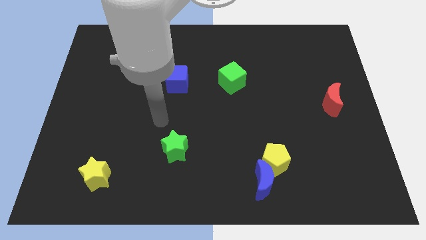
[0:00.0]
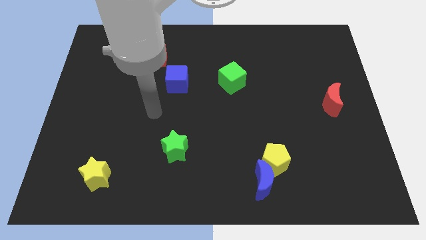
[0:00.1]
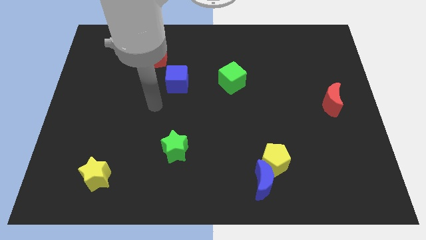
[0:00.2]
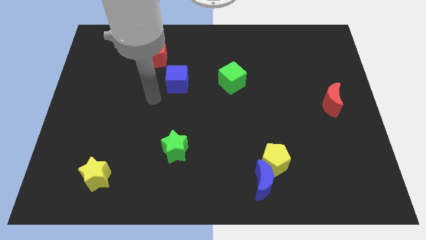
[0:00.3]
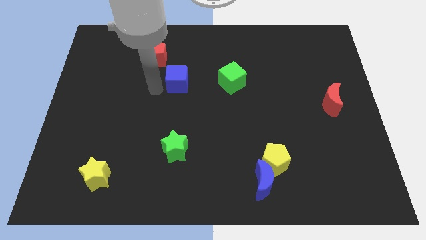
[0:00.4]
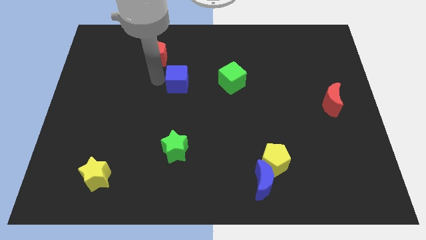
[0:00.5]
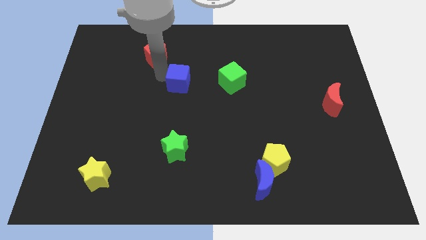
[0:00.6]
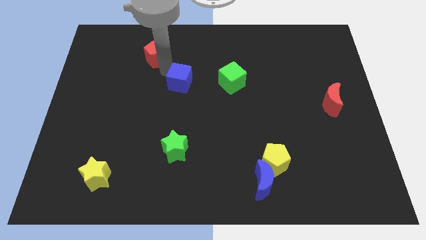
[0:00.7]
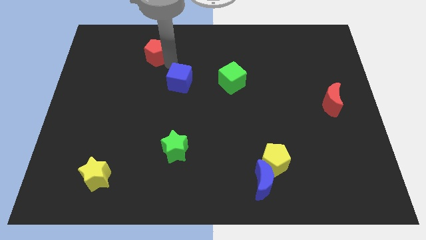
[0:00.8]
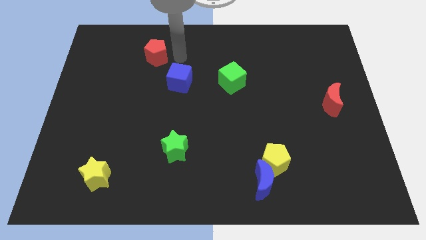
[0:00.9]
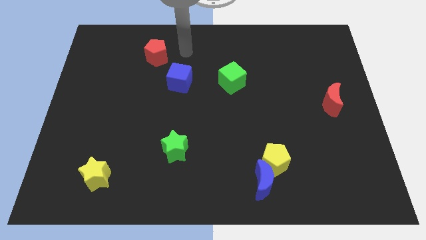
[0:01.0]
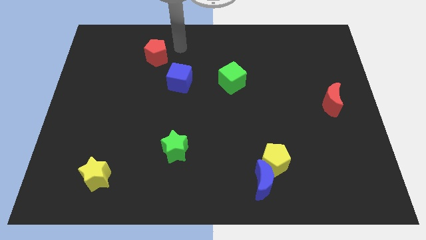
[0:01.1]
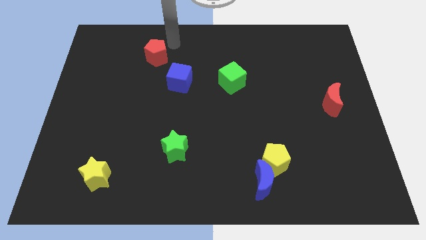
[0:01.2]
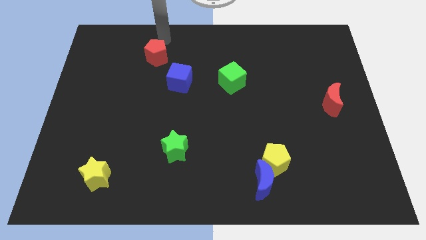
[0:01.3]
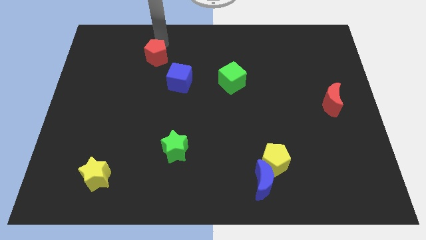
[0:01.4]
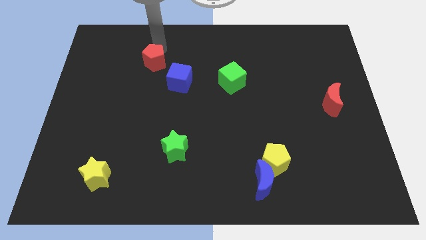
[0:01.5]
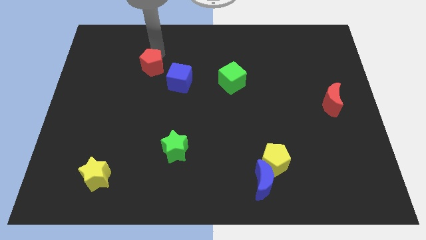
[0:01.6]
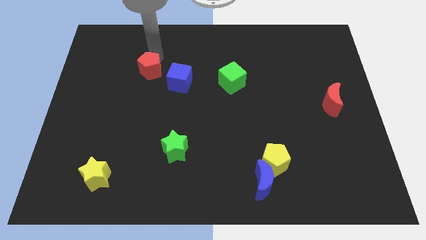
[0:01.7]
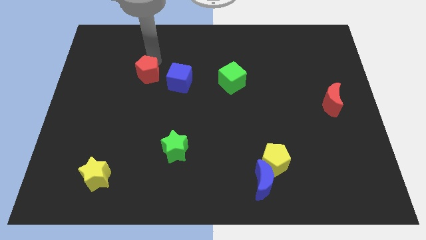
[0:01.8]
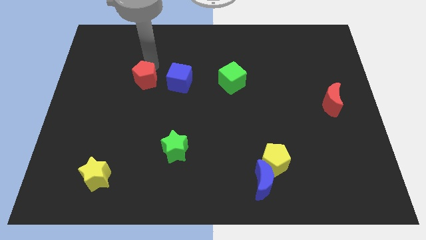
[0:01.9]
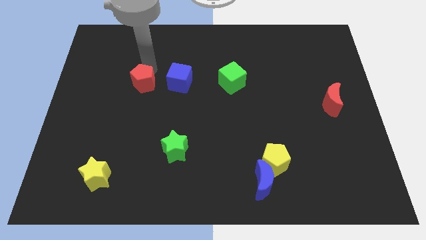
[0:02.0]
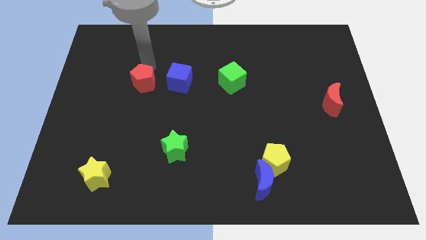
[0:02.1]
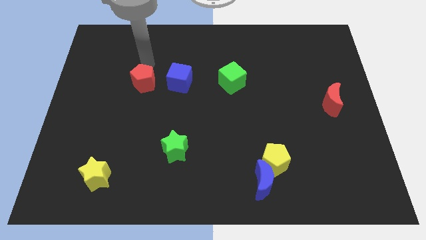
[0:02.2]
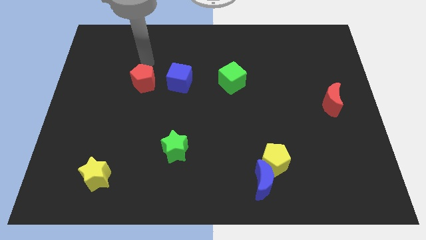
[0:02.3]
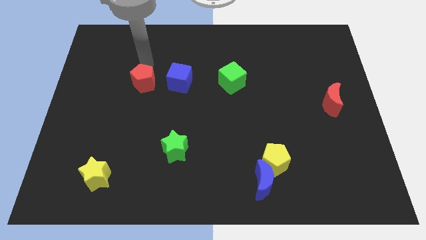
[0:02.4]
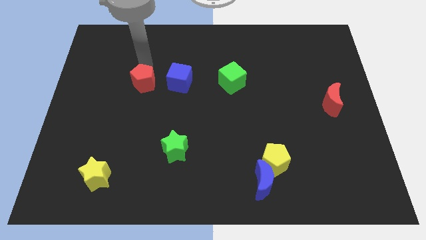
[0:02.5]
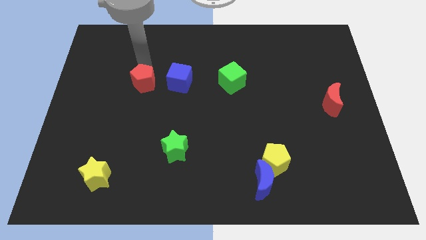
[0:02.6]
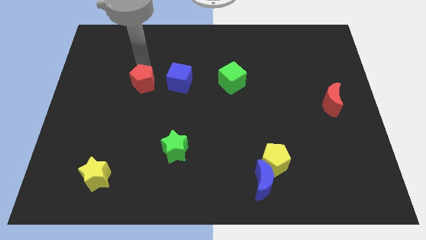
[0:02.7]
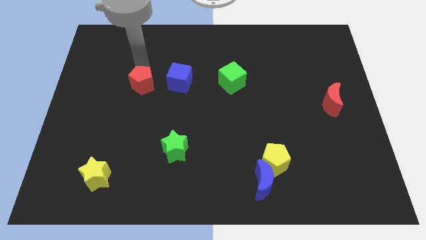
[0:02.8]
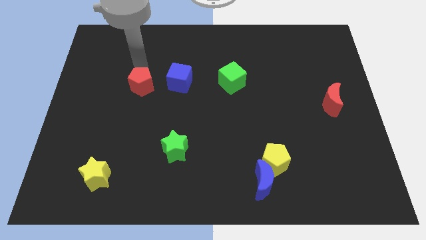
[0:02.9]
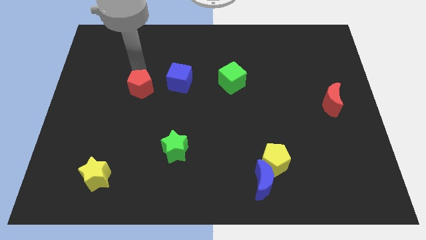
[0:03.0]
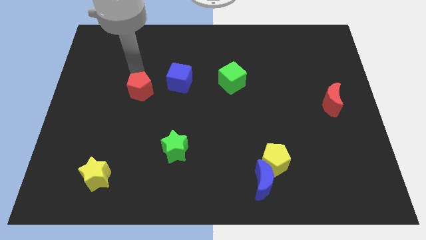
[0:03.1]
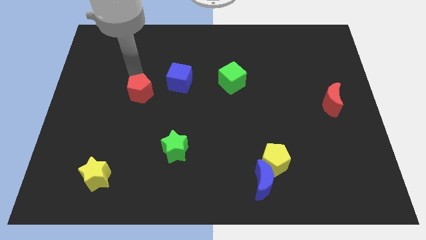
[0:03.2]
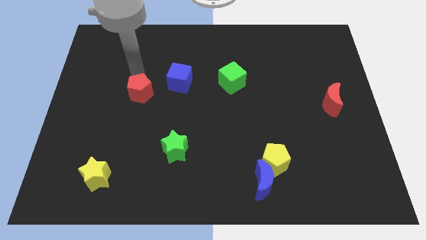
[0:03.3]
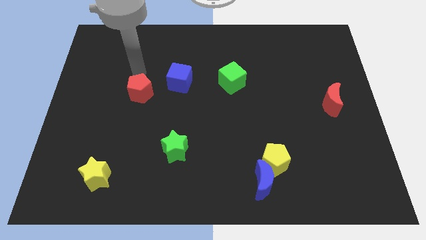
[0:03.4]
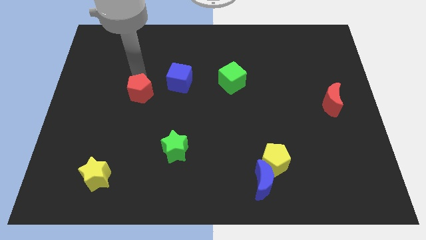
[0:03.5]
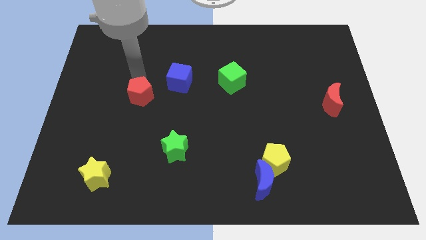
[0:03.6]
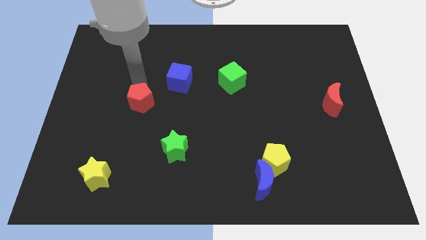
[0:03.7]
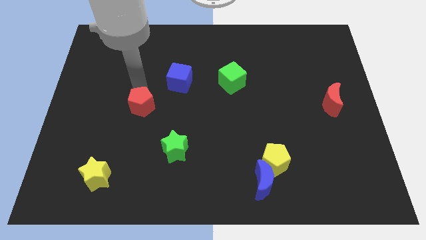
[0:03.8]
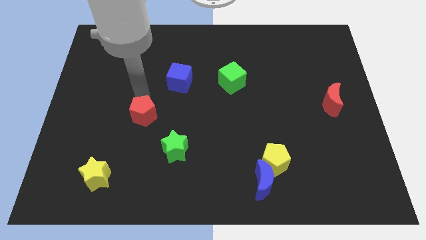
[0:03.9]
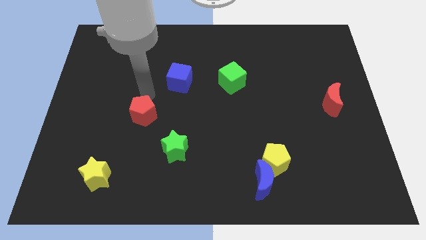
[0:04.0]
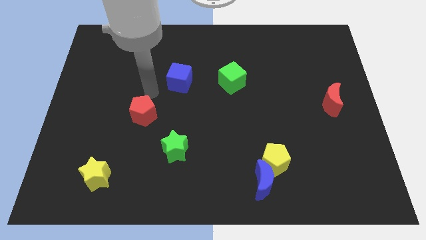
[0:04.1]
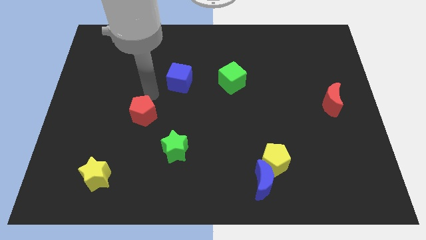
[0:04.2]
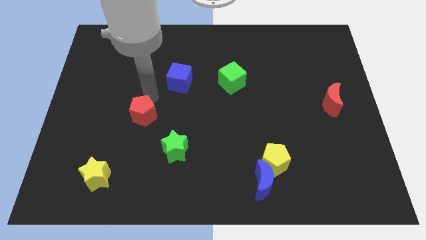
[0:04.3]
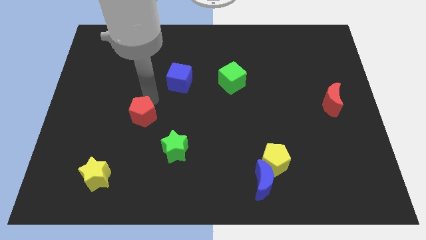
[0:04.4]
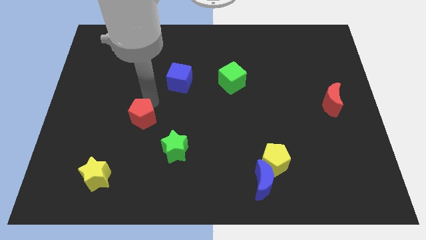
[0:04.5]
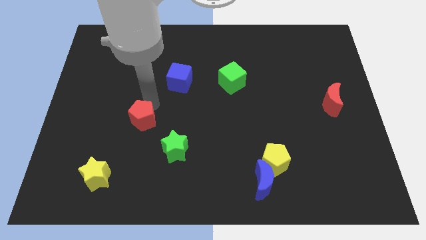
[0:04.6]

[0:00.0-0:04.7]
slide the red pentagon down

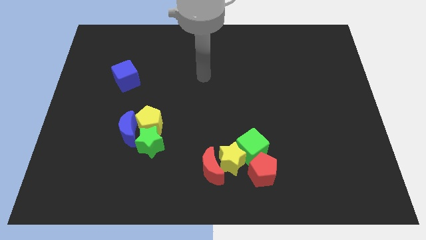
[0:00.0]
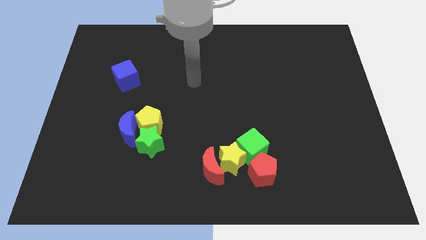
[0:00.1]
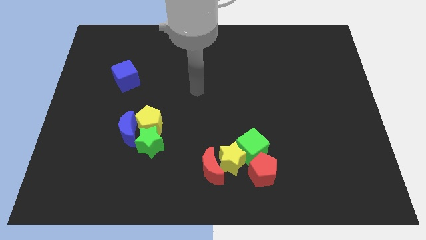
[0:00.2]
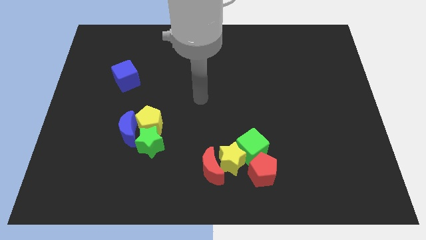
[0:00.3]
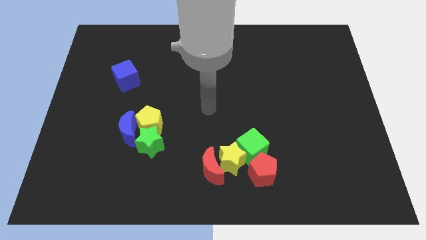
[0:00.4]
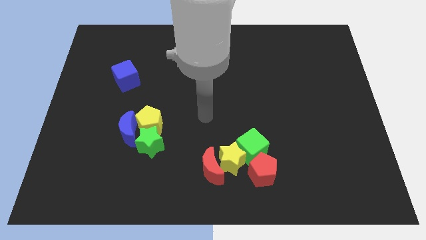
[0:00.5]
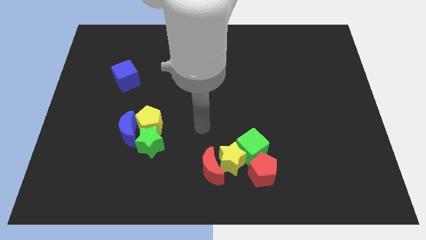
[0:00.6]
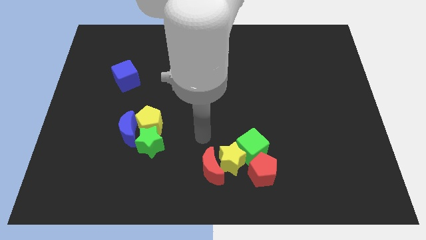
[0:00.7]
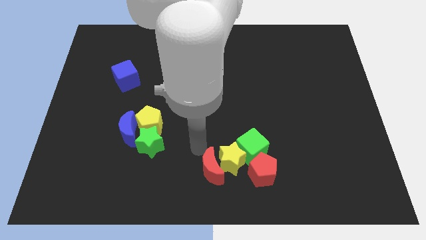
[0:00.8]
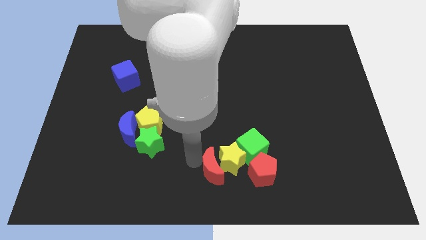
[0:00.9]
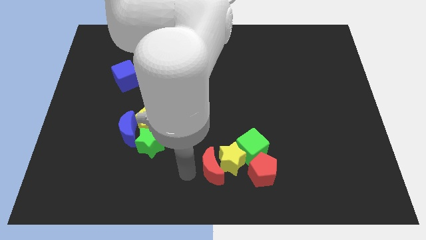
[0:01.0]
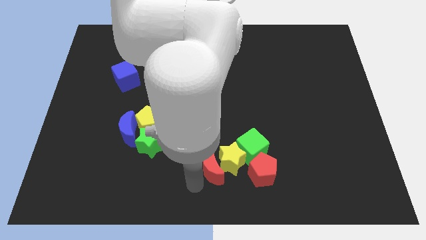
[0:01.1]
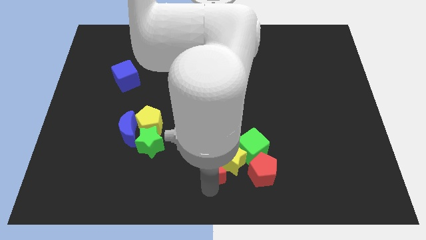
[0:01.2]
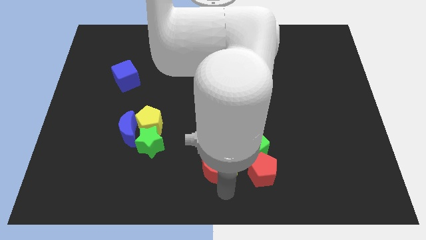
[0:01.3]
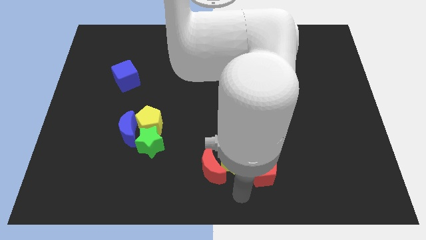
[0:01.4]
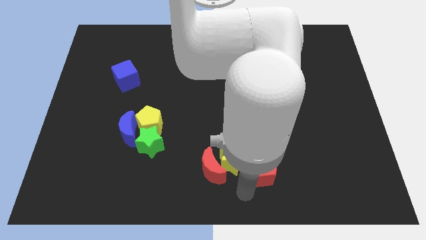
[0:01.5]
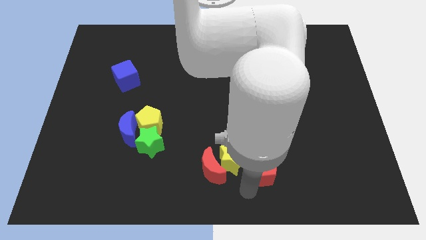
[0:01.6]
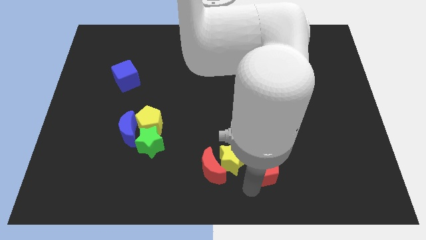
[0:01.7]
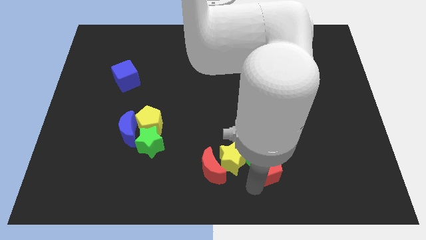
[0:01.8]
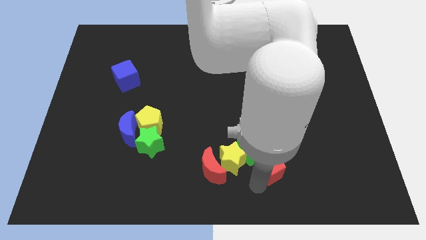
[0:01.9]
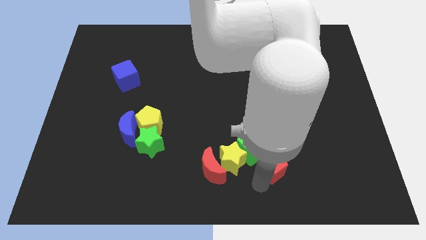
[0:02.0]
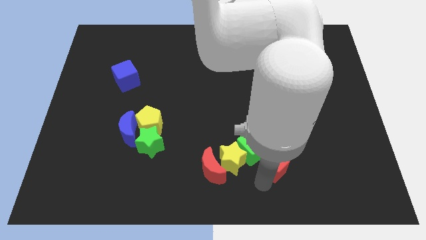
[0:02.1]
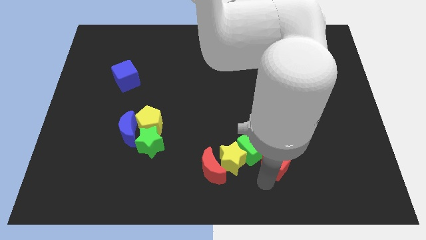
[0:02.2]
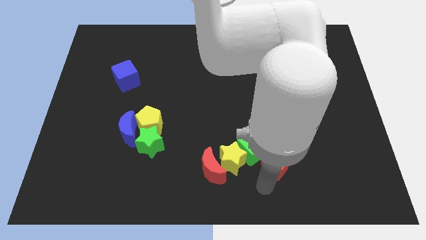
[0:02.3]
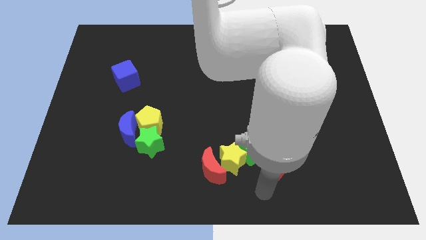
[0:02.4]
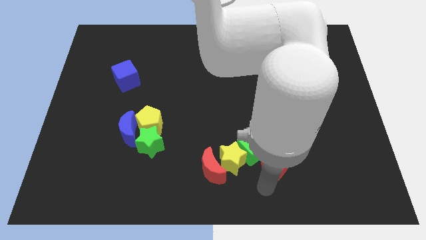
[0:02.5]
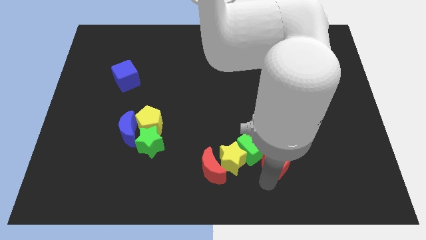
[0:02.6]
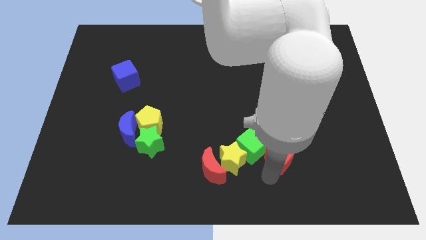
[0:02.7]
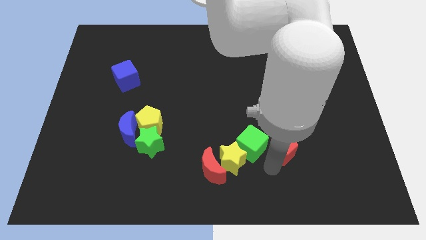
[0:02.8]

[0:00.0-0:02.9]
slightly push the red pentagon up and right diagonally

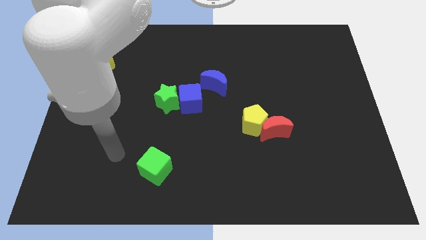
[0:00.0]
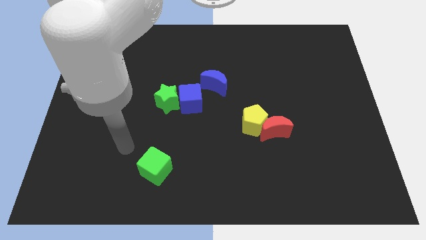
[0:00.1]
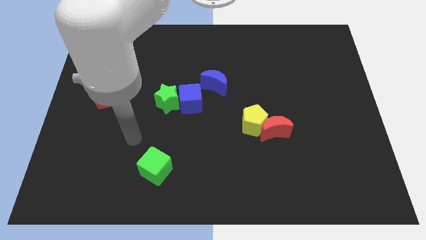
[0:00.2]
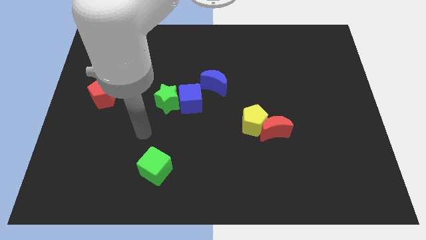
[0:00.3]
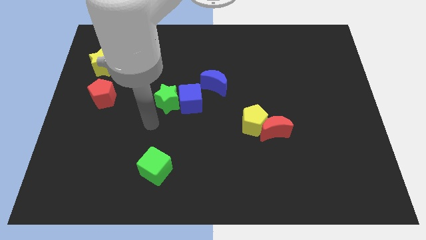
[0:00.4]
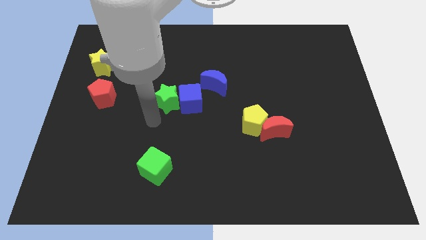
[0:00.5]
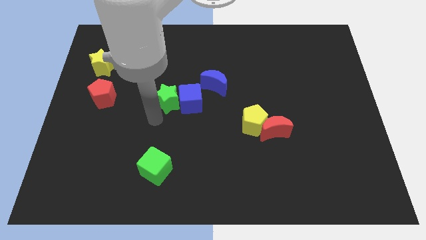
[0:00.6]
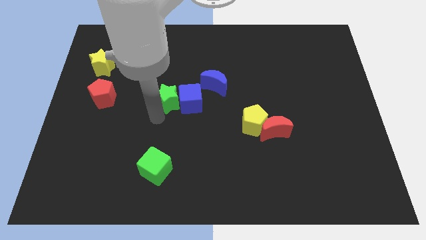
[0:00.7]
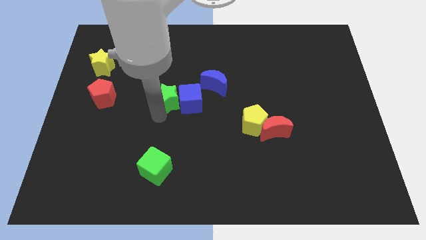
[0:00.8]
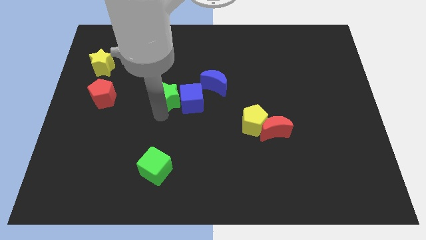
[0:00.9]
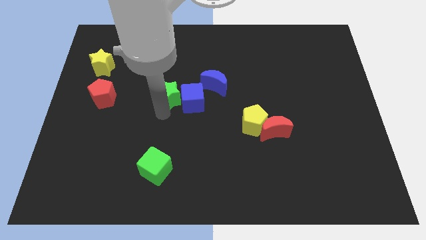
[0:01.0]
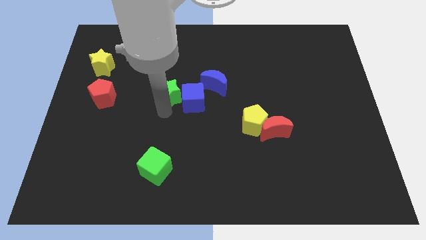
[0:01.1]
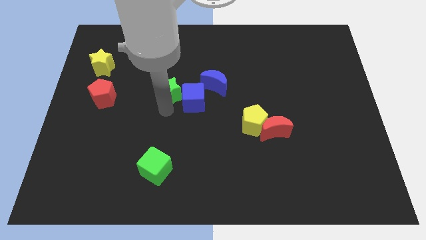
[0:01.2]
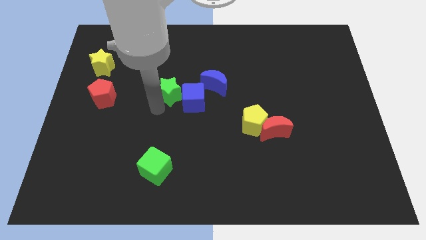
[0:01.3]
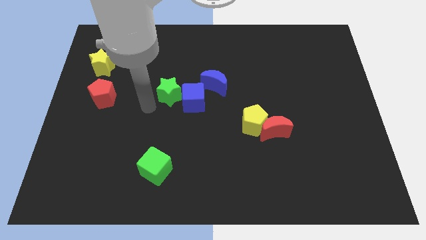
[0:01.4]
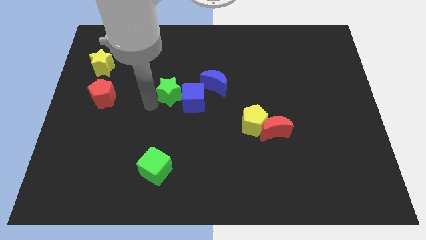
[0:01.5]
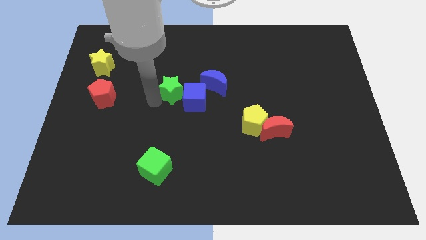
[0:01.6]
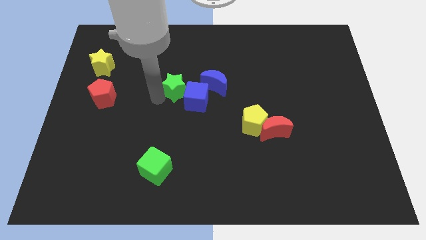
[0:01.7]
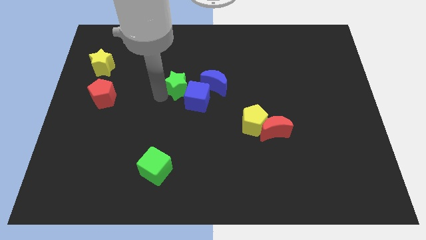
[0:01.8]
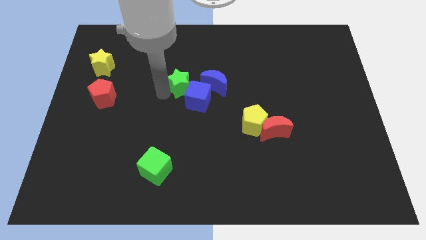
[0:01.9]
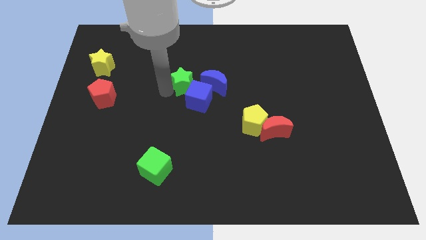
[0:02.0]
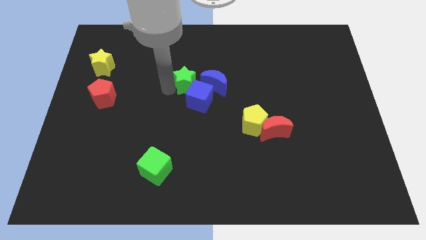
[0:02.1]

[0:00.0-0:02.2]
slide the green star slightly up and then right
